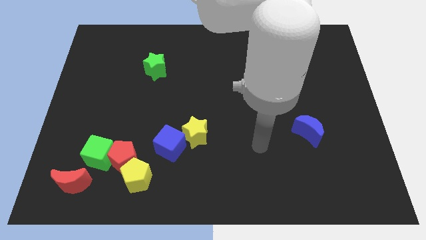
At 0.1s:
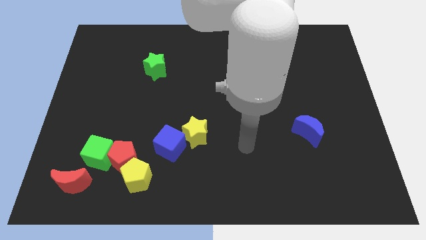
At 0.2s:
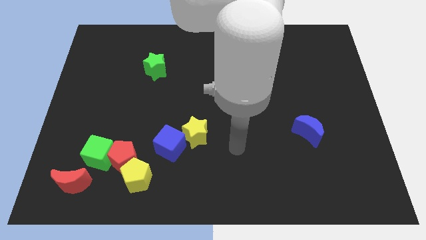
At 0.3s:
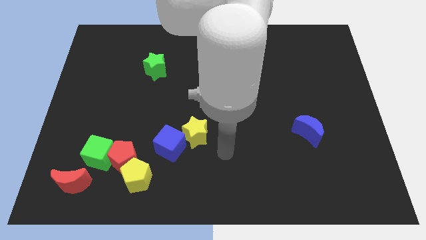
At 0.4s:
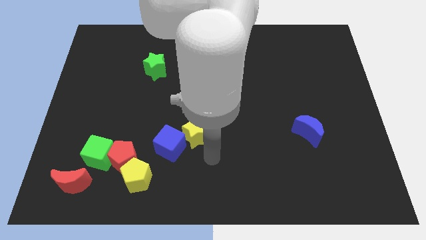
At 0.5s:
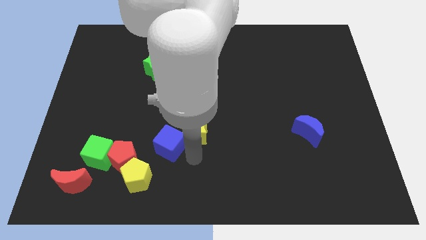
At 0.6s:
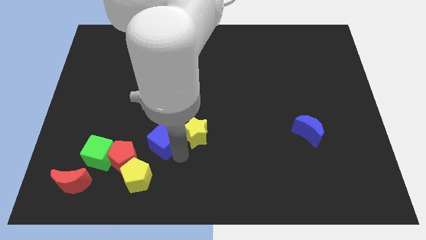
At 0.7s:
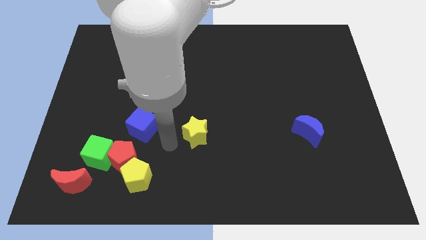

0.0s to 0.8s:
separate the yellow star from the blue cube

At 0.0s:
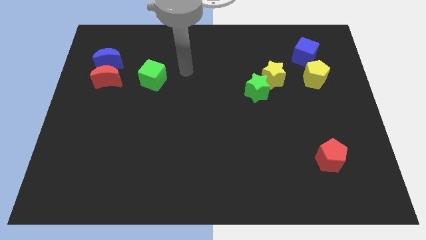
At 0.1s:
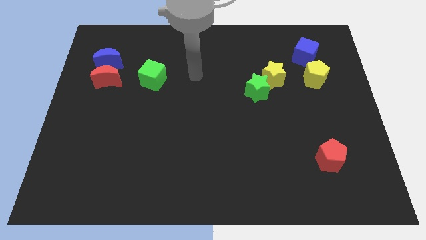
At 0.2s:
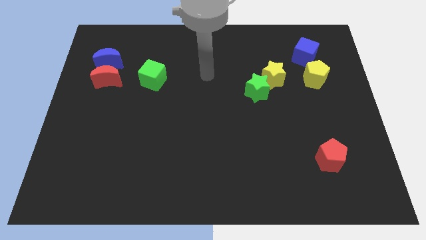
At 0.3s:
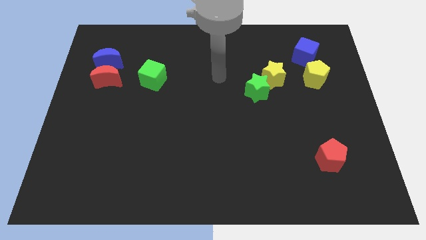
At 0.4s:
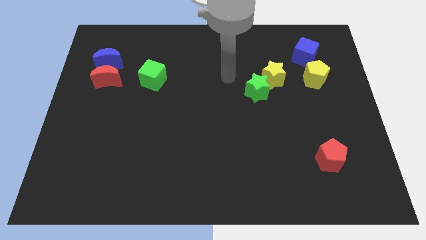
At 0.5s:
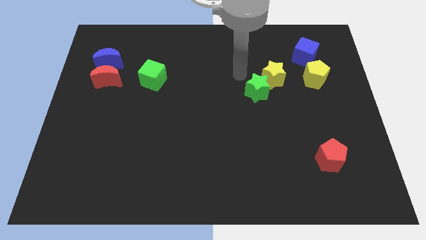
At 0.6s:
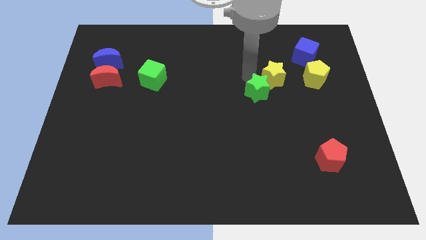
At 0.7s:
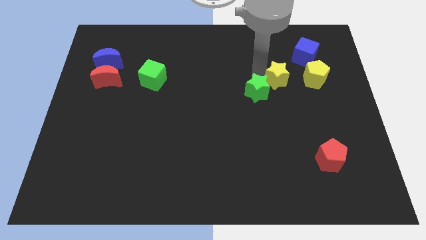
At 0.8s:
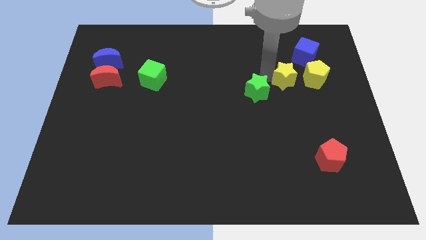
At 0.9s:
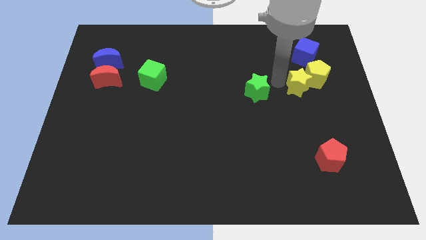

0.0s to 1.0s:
separate the green star from the yellow star

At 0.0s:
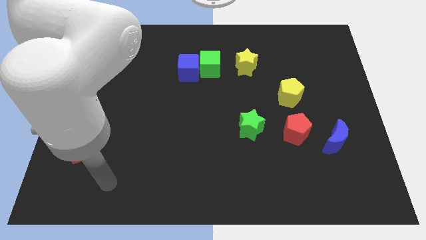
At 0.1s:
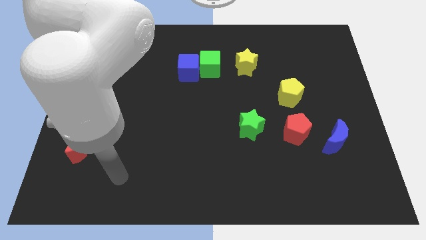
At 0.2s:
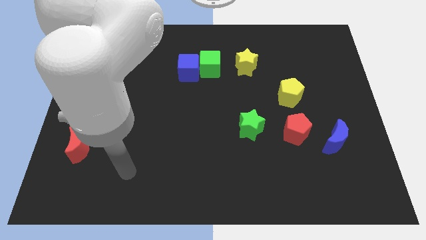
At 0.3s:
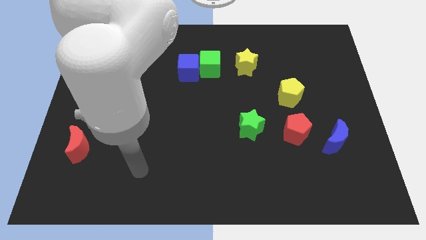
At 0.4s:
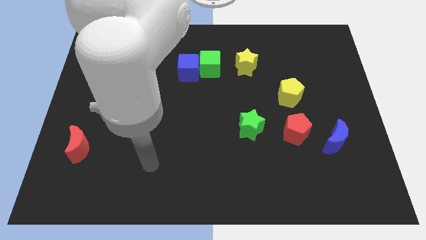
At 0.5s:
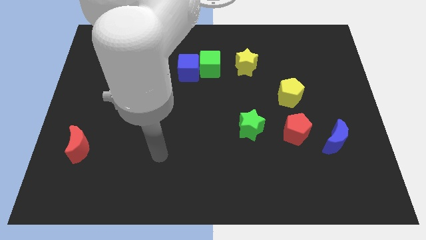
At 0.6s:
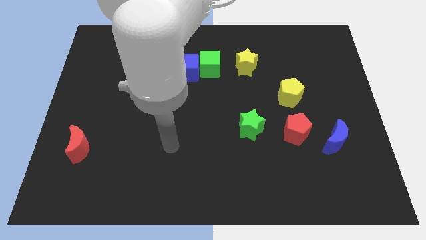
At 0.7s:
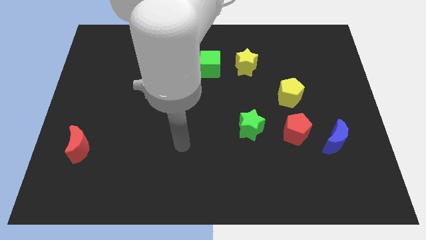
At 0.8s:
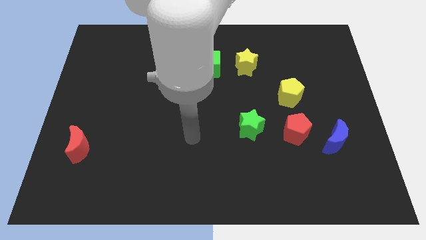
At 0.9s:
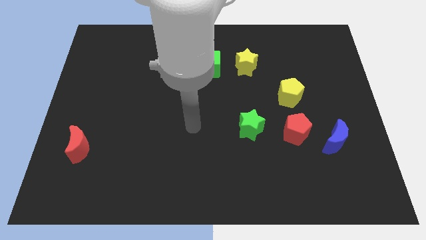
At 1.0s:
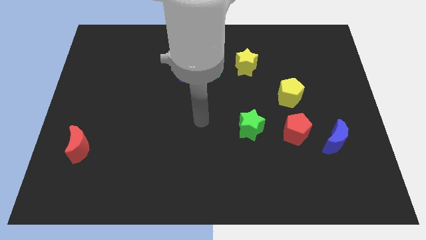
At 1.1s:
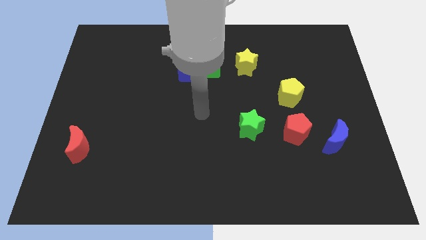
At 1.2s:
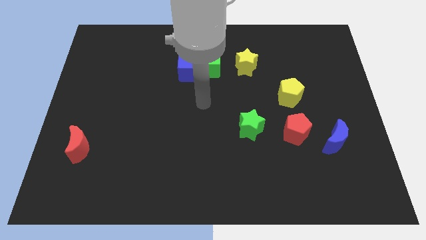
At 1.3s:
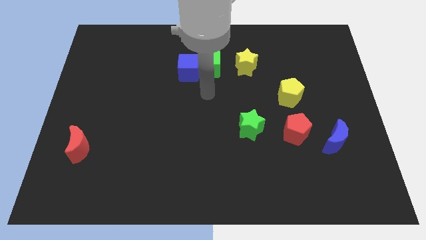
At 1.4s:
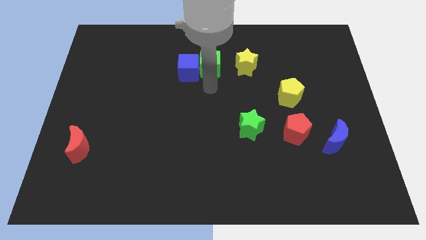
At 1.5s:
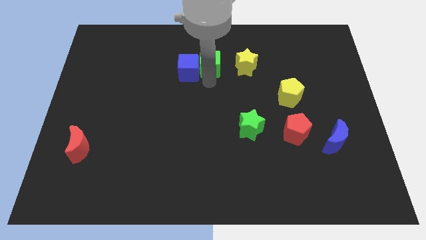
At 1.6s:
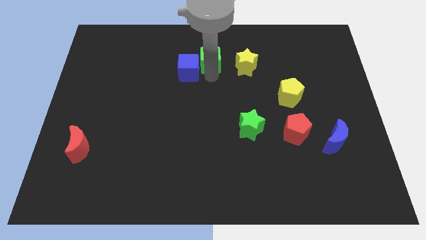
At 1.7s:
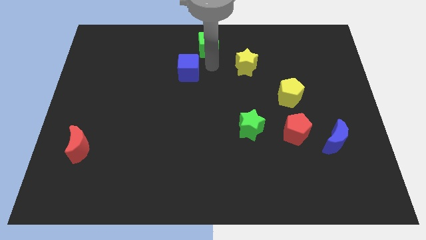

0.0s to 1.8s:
pull the blue cube apart from the green cube

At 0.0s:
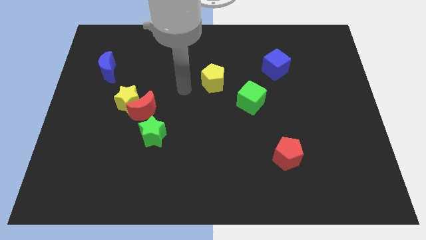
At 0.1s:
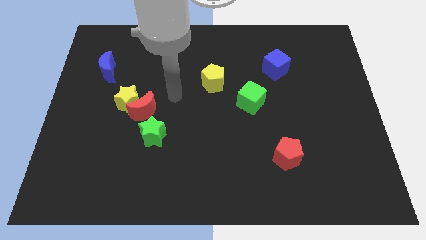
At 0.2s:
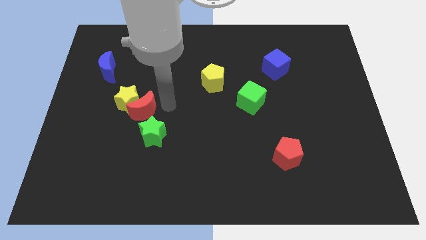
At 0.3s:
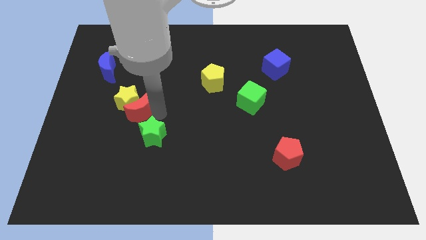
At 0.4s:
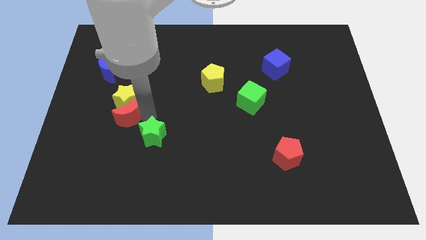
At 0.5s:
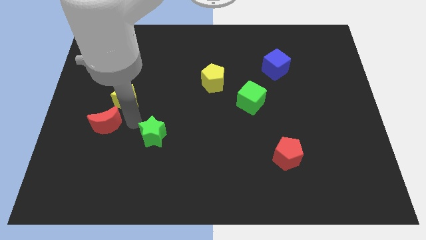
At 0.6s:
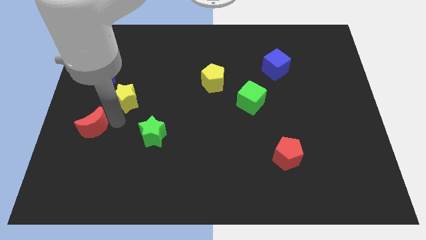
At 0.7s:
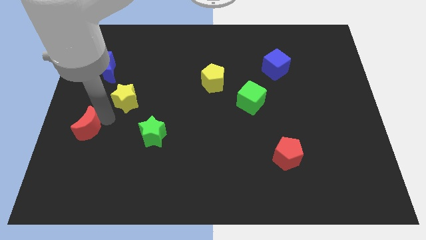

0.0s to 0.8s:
separate the yellow star from the red moon

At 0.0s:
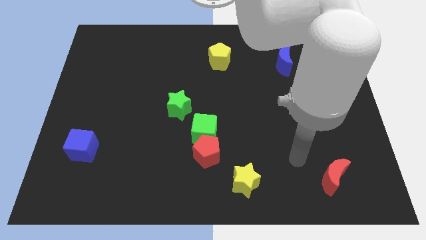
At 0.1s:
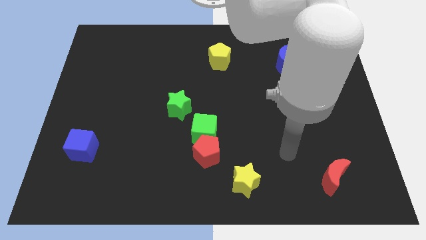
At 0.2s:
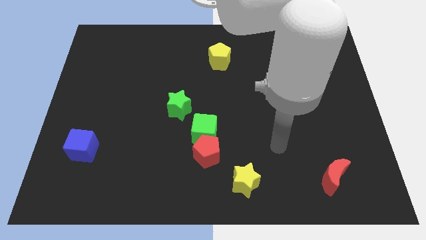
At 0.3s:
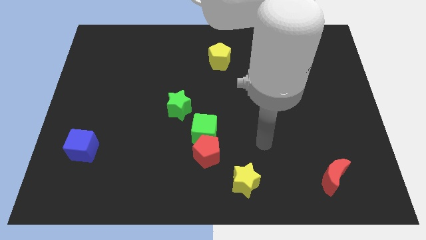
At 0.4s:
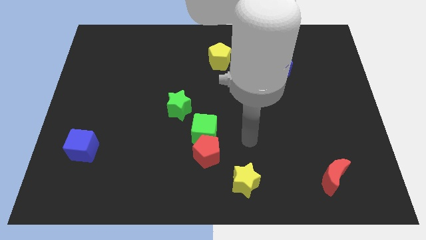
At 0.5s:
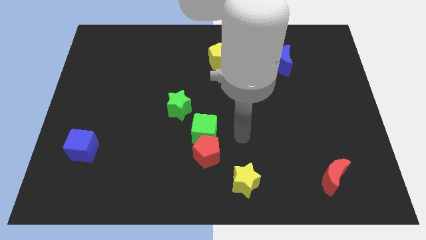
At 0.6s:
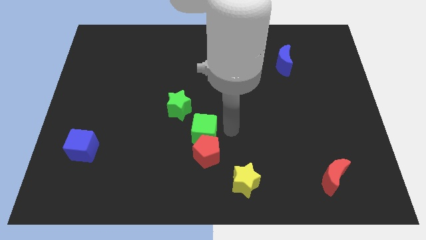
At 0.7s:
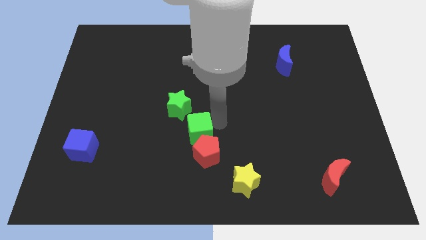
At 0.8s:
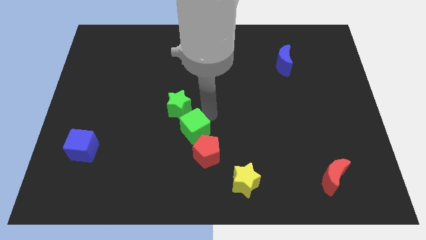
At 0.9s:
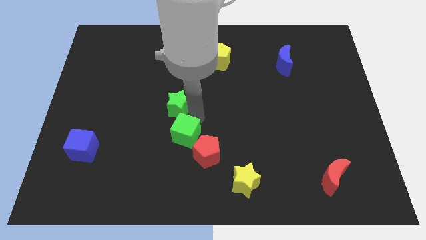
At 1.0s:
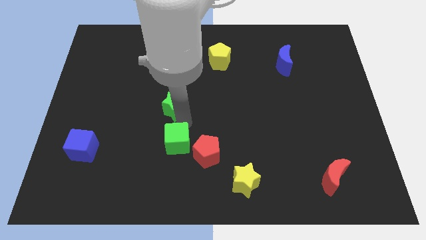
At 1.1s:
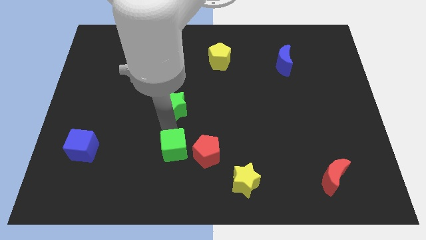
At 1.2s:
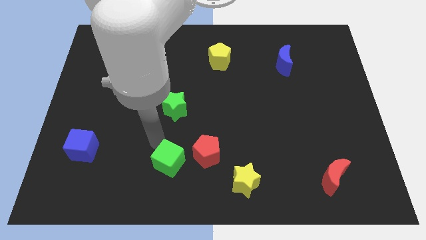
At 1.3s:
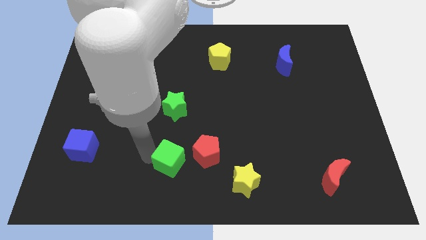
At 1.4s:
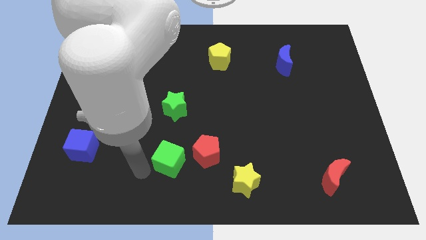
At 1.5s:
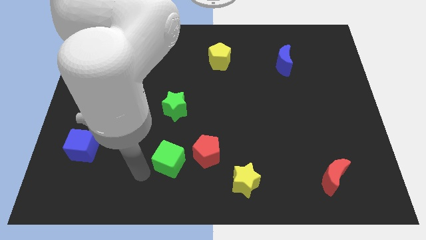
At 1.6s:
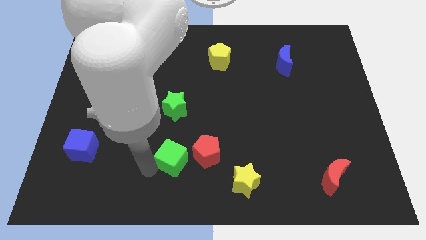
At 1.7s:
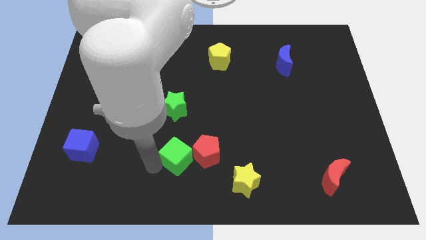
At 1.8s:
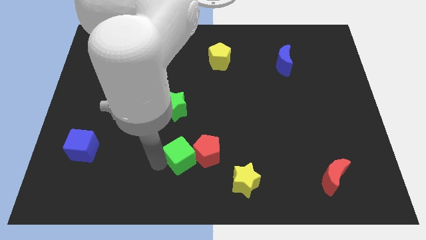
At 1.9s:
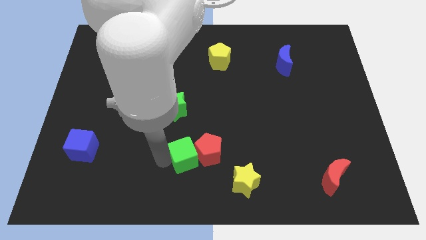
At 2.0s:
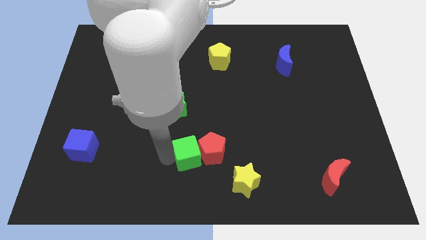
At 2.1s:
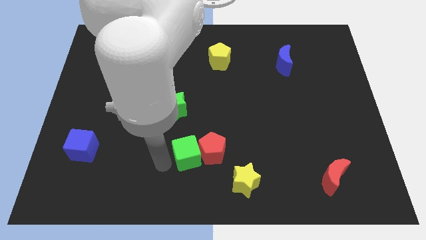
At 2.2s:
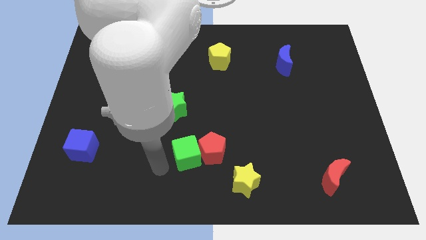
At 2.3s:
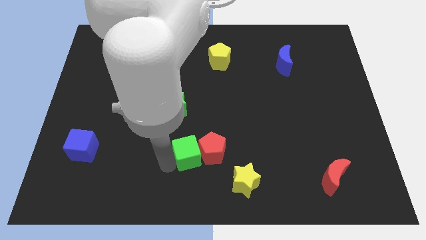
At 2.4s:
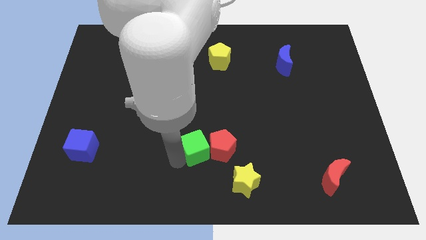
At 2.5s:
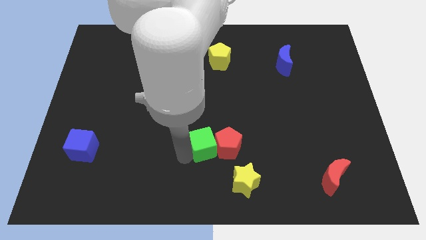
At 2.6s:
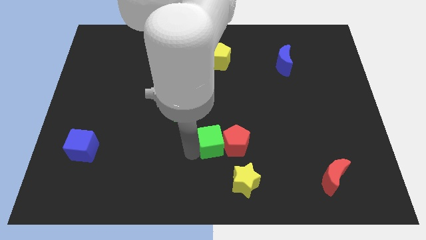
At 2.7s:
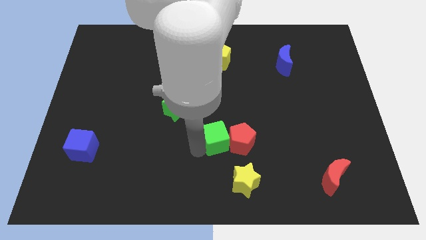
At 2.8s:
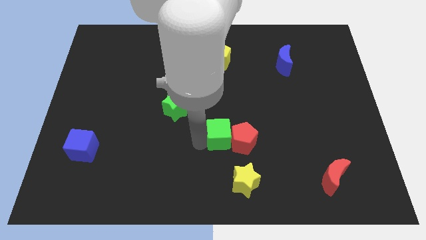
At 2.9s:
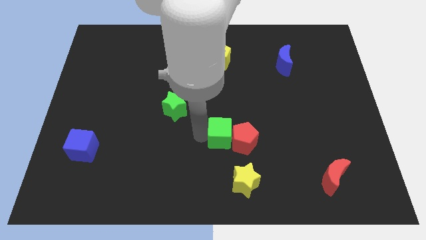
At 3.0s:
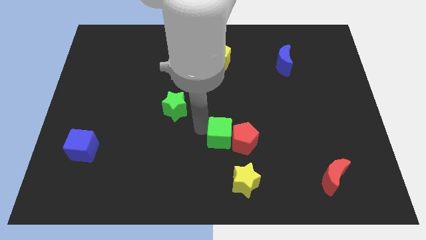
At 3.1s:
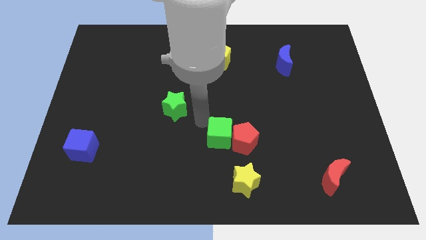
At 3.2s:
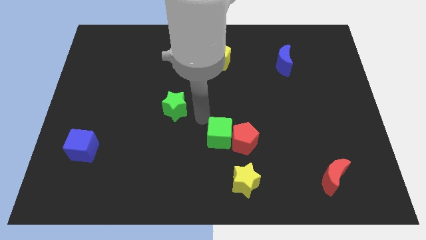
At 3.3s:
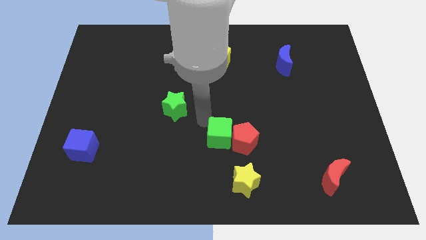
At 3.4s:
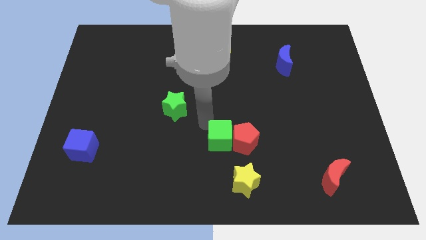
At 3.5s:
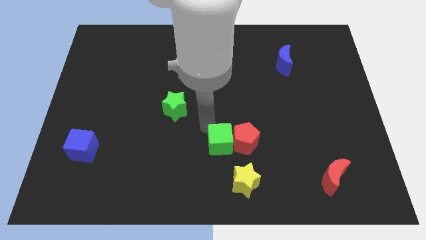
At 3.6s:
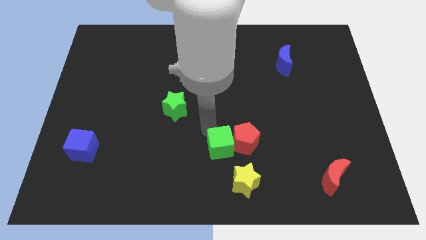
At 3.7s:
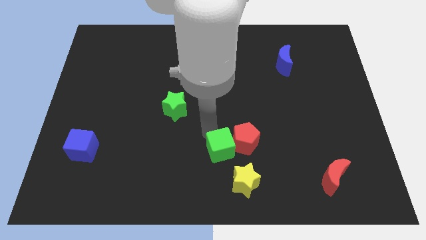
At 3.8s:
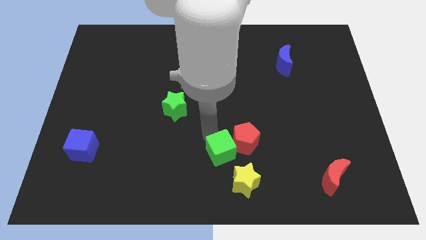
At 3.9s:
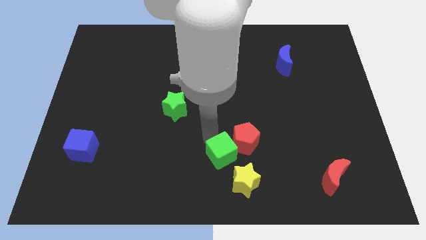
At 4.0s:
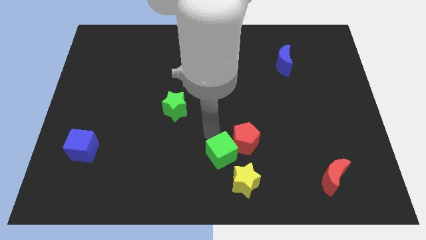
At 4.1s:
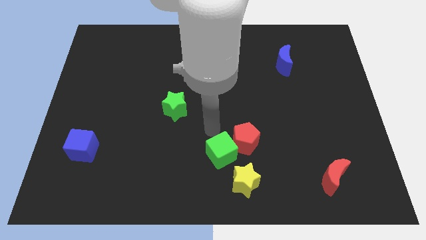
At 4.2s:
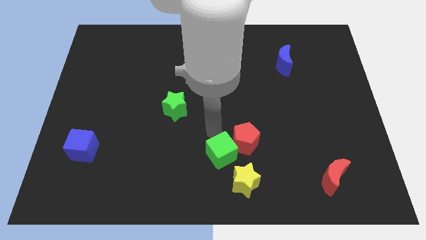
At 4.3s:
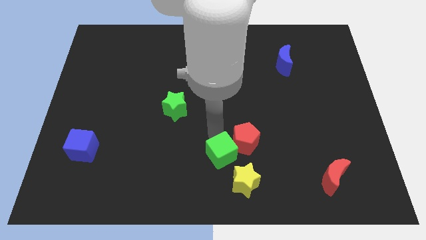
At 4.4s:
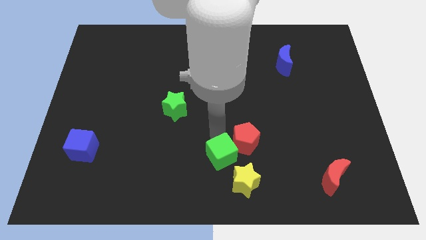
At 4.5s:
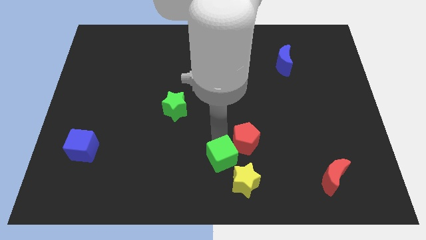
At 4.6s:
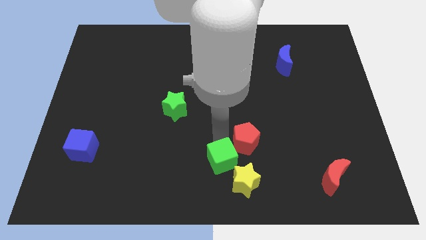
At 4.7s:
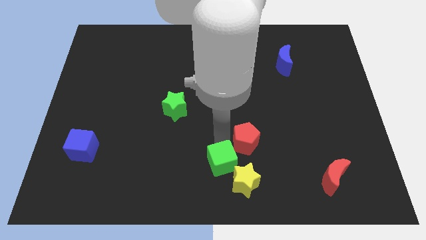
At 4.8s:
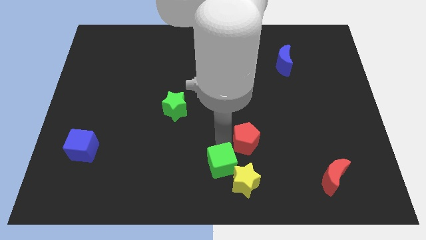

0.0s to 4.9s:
separate the green cube from the red pentagon and green star

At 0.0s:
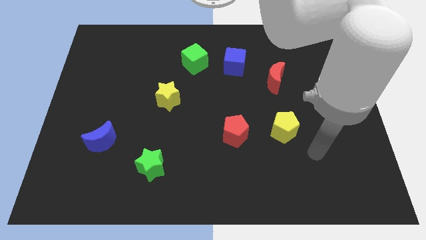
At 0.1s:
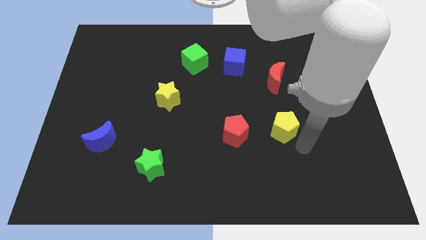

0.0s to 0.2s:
move the blue cube away from the green cube
